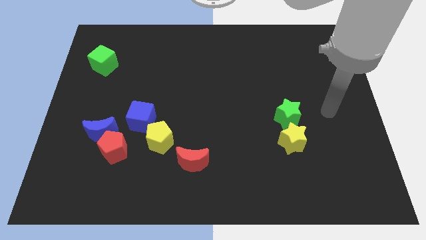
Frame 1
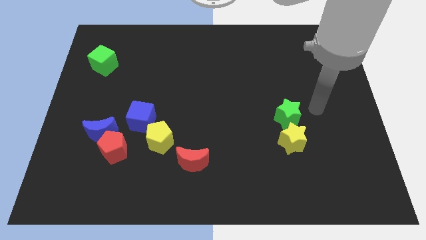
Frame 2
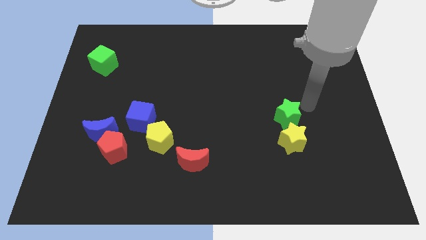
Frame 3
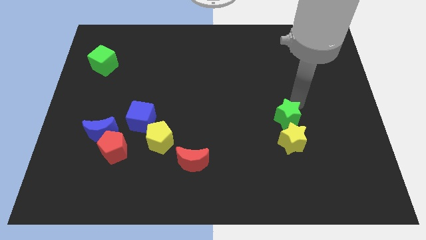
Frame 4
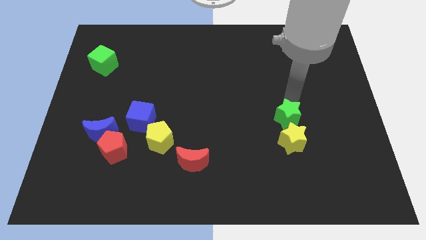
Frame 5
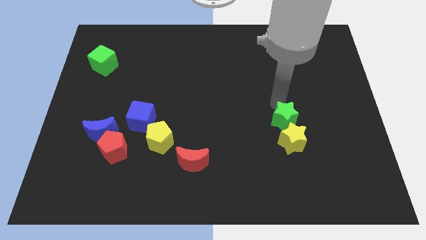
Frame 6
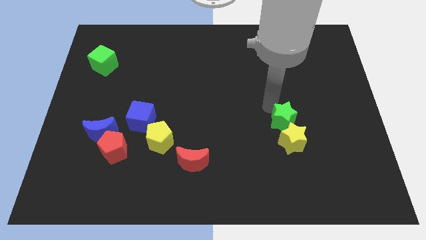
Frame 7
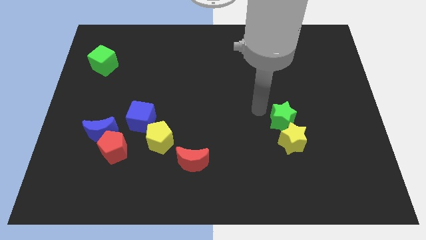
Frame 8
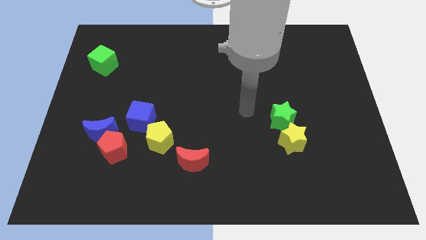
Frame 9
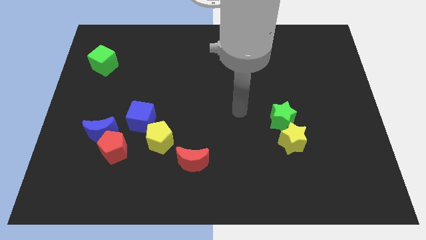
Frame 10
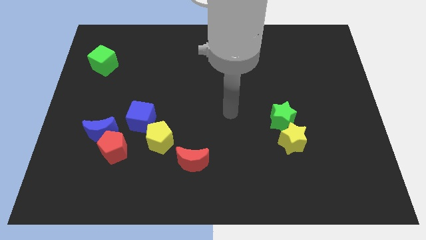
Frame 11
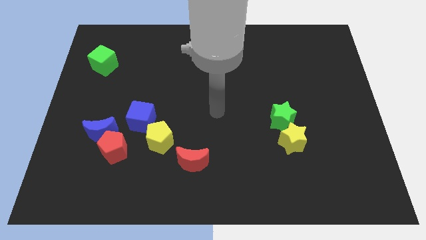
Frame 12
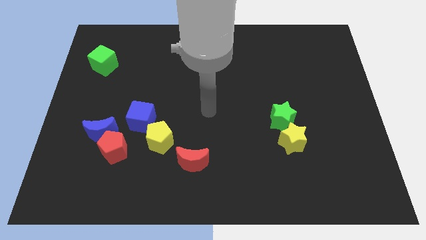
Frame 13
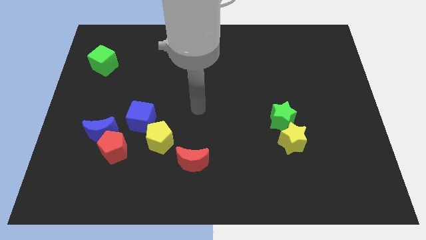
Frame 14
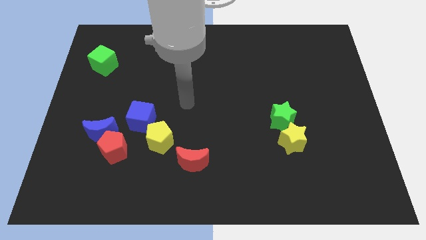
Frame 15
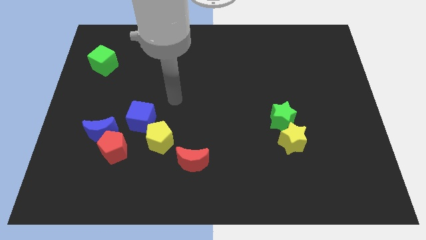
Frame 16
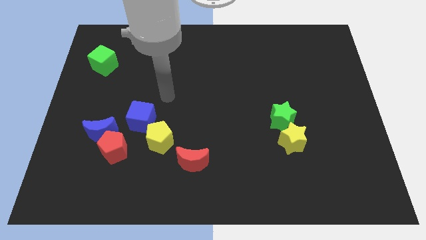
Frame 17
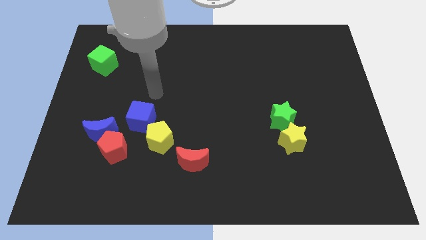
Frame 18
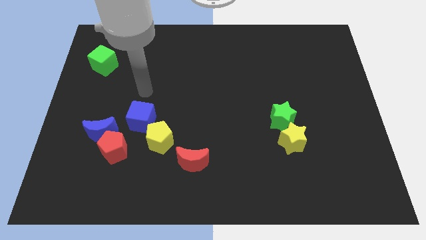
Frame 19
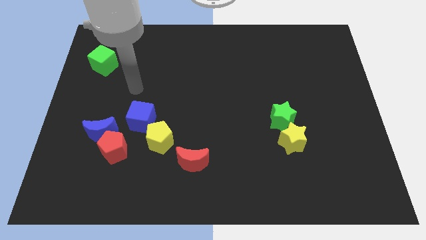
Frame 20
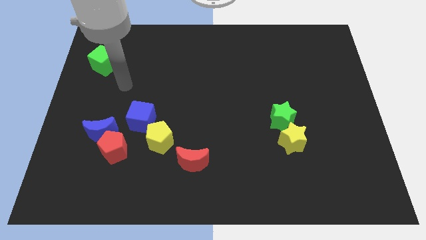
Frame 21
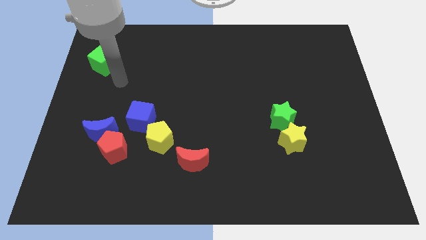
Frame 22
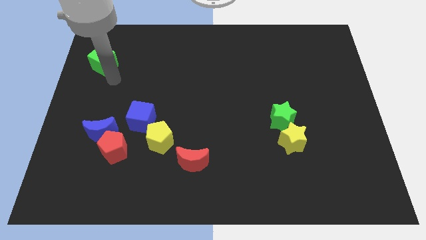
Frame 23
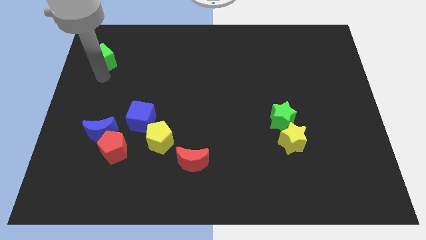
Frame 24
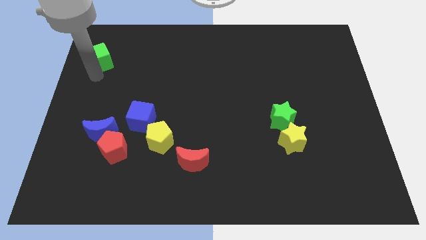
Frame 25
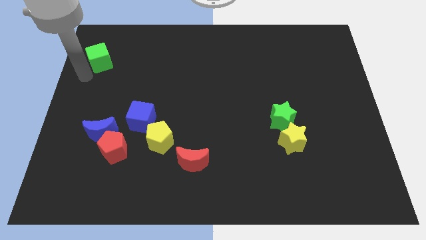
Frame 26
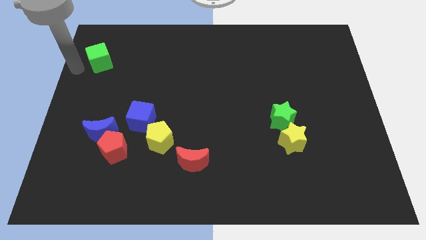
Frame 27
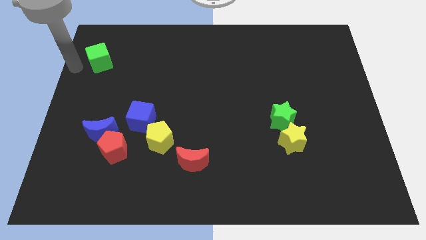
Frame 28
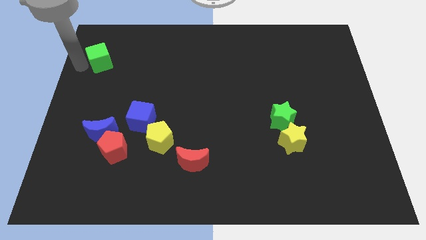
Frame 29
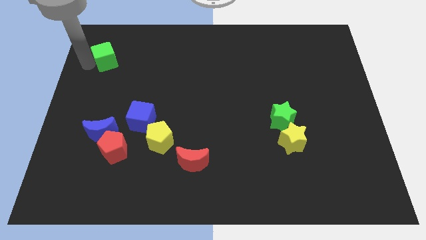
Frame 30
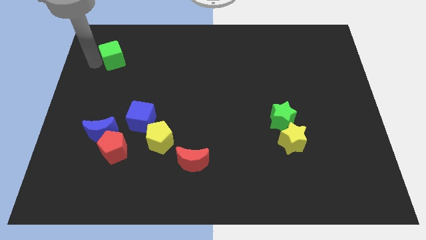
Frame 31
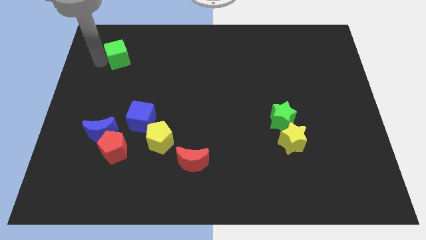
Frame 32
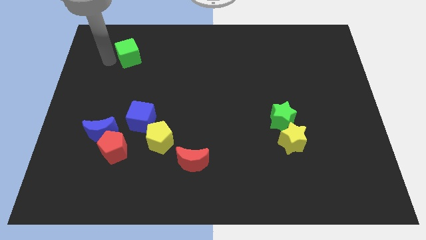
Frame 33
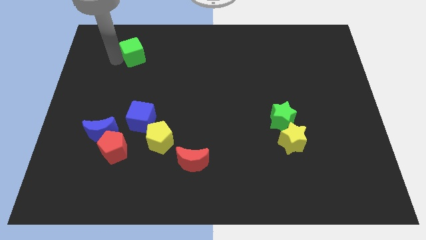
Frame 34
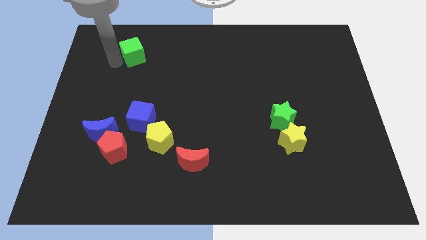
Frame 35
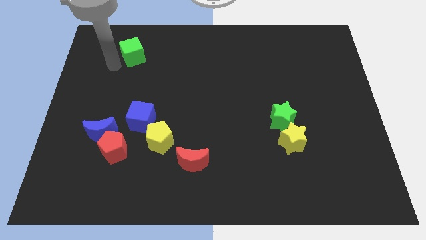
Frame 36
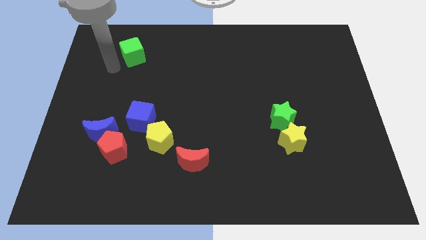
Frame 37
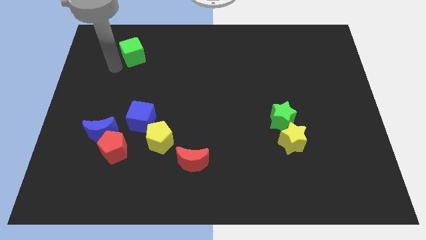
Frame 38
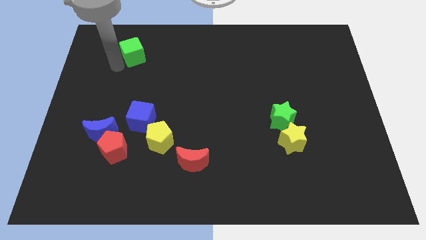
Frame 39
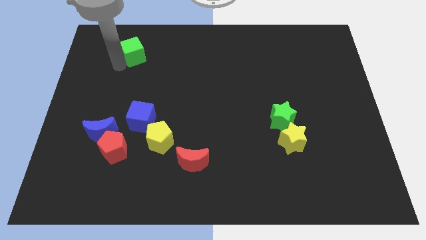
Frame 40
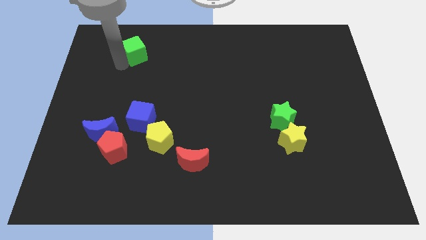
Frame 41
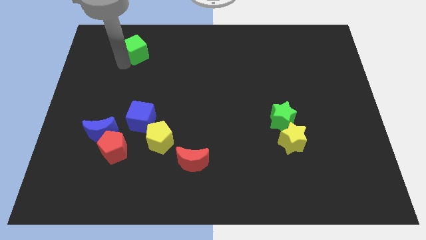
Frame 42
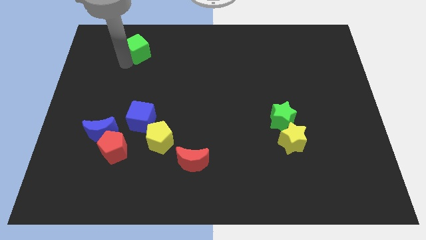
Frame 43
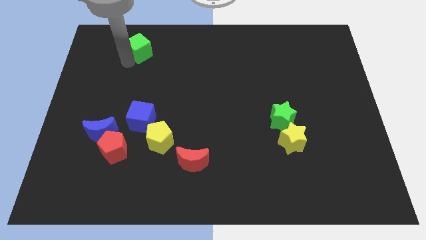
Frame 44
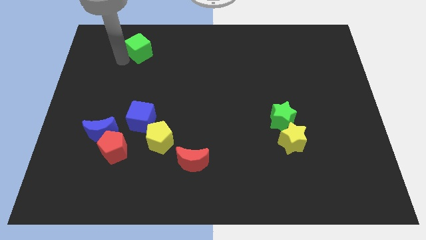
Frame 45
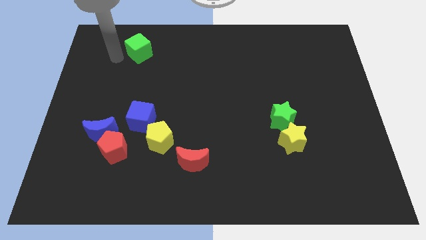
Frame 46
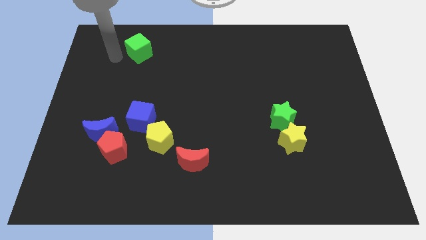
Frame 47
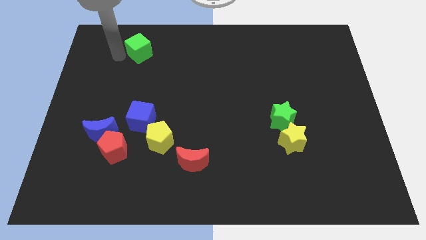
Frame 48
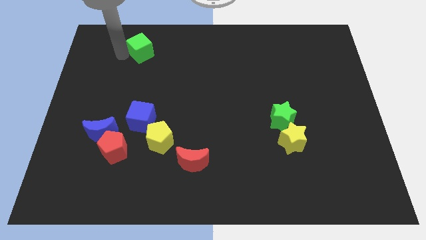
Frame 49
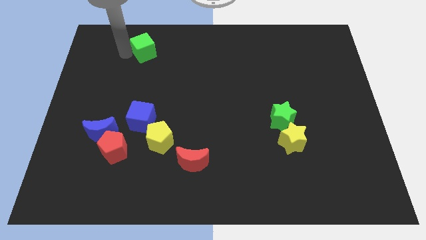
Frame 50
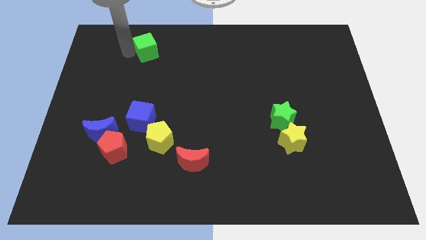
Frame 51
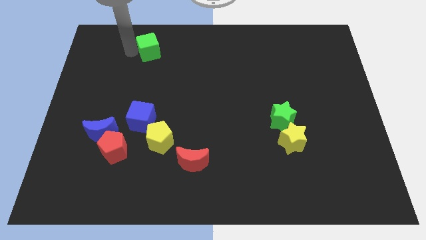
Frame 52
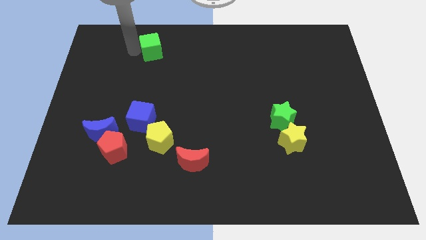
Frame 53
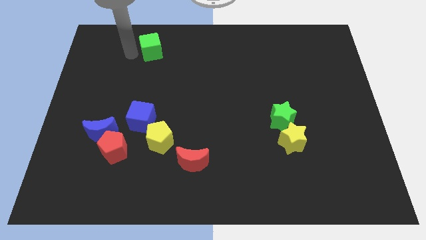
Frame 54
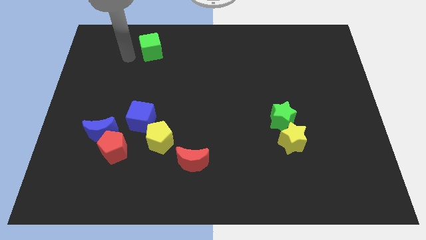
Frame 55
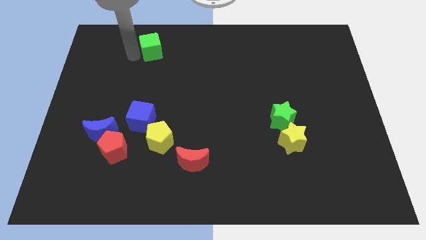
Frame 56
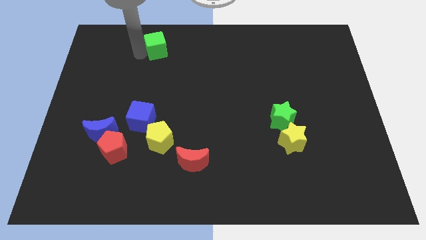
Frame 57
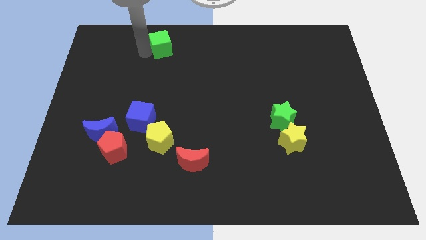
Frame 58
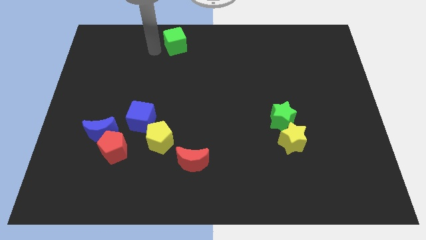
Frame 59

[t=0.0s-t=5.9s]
slide the green cube to the top
